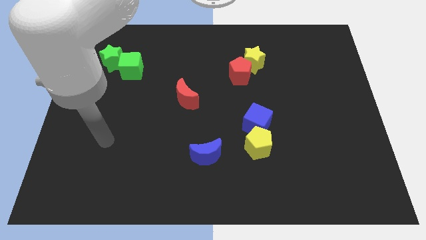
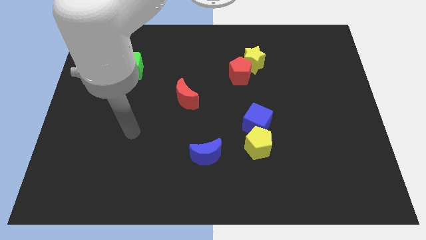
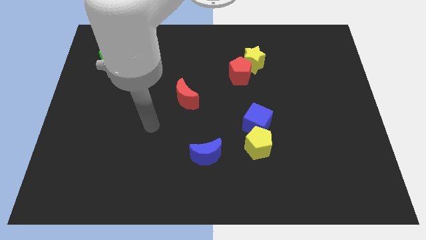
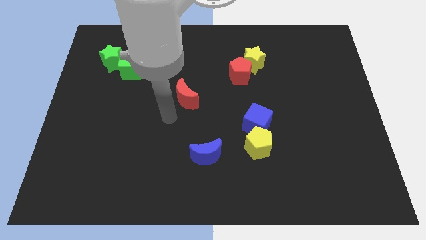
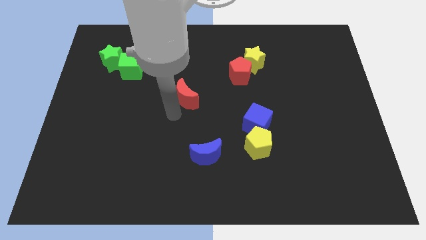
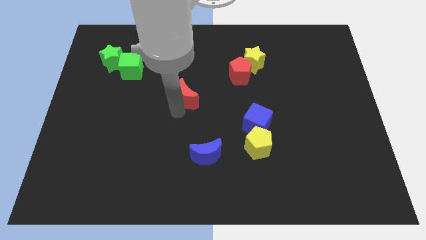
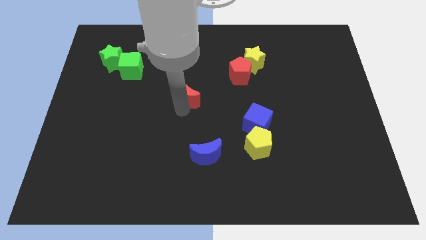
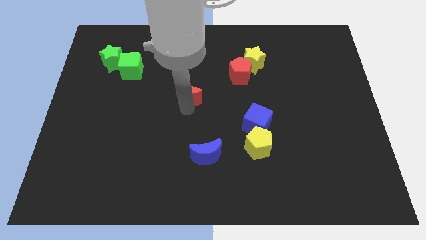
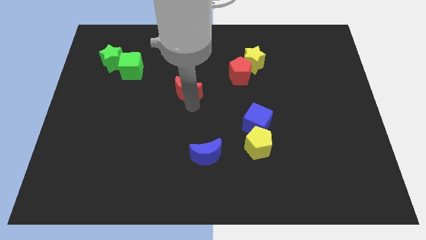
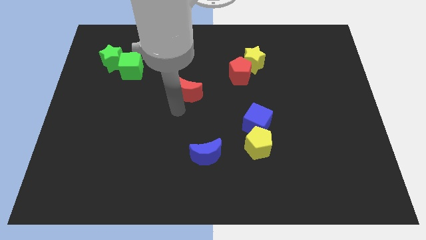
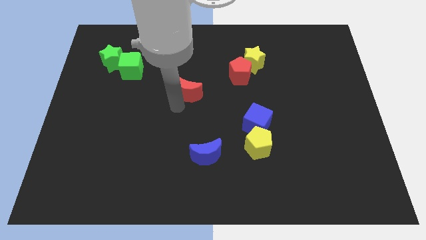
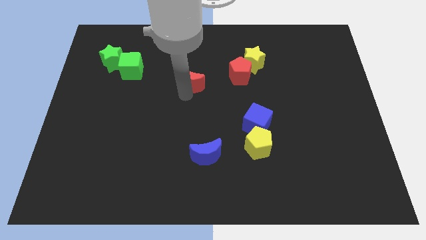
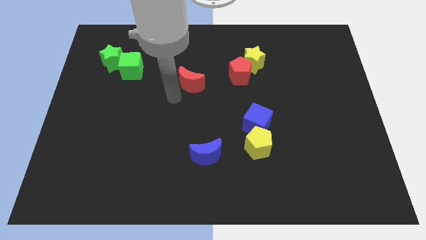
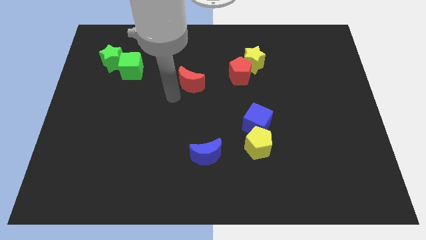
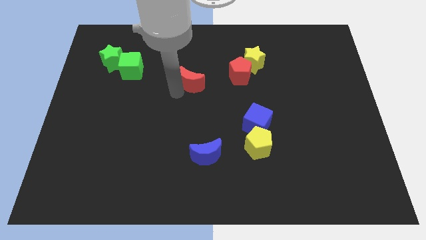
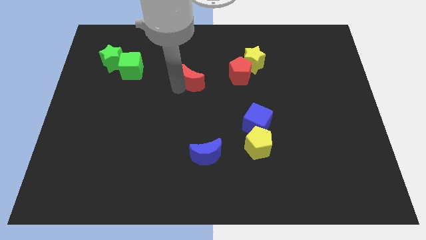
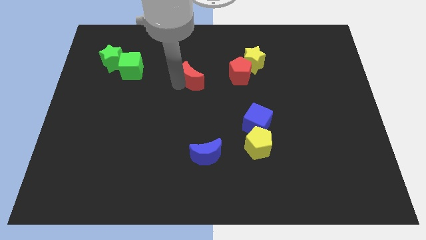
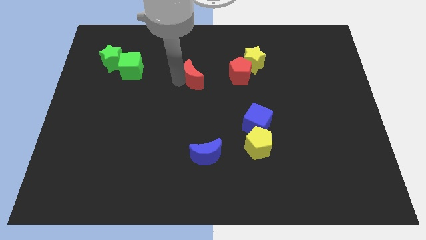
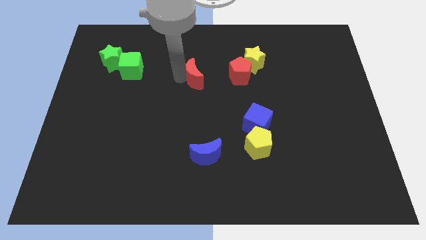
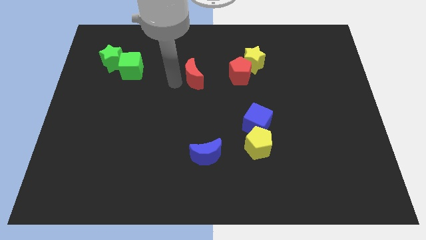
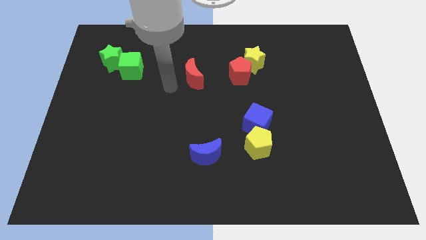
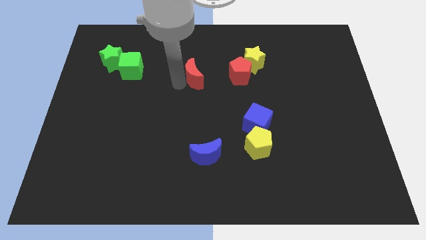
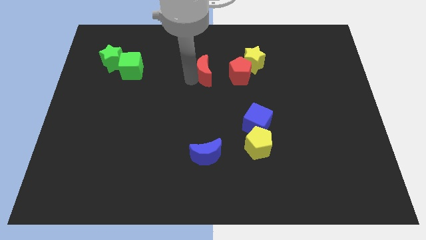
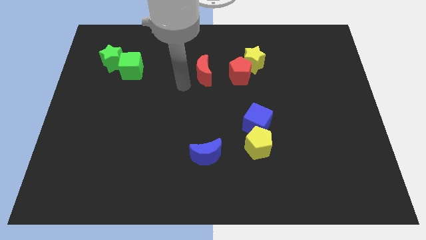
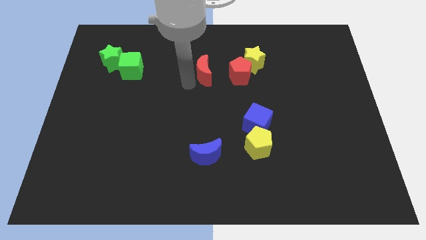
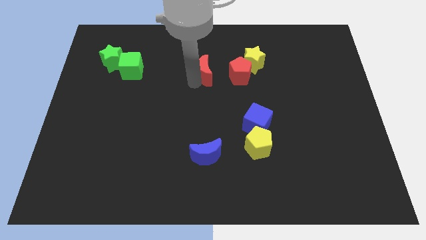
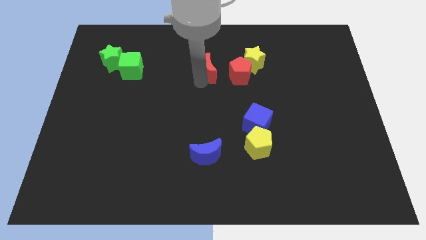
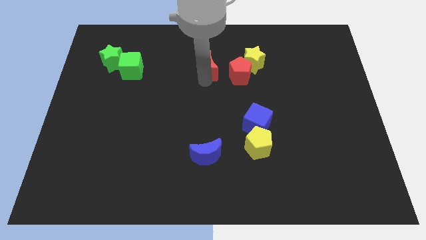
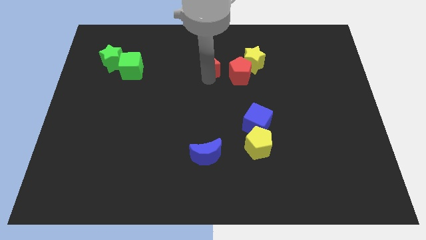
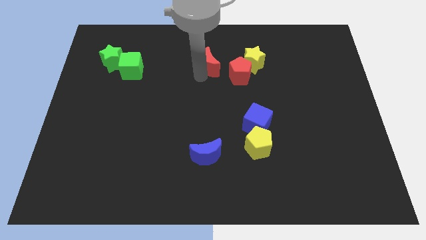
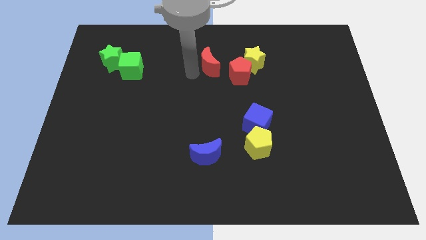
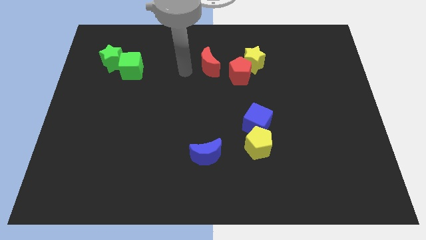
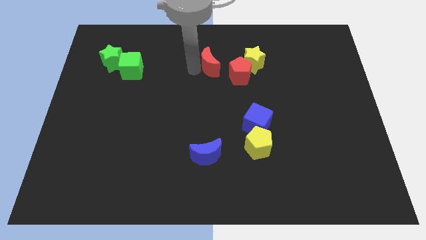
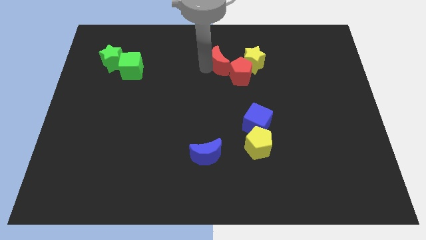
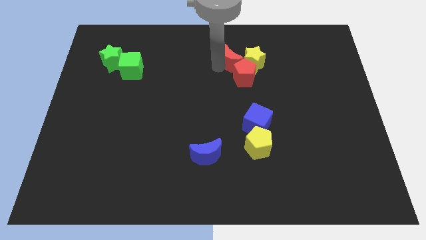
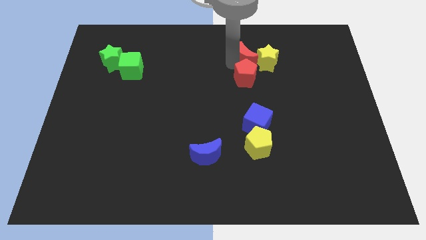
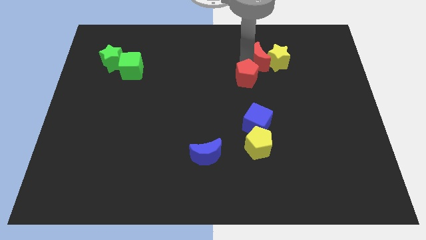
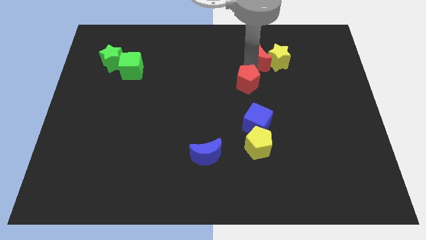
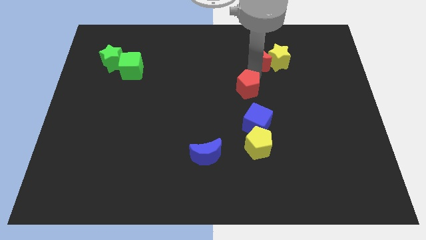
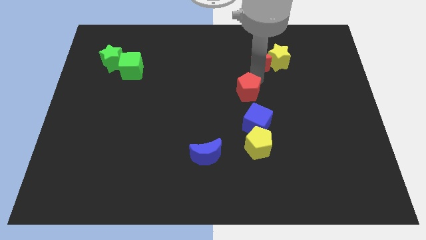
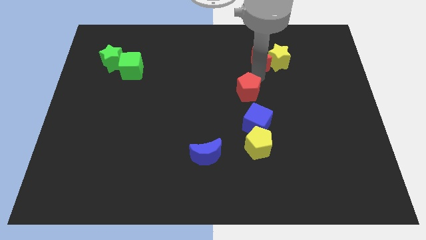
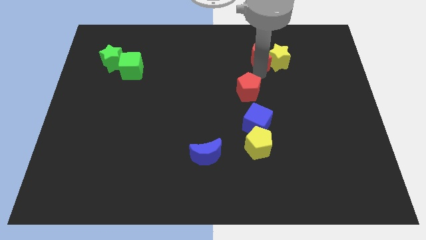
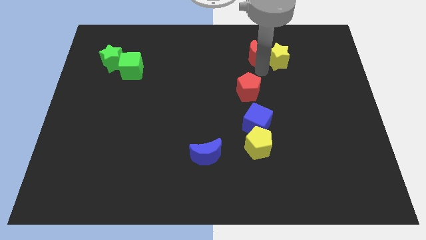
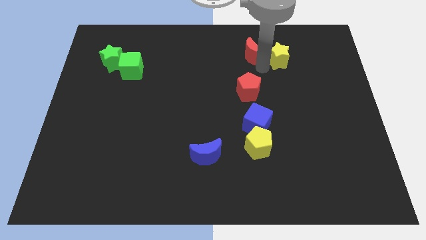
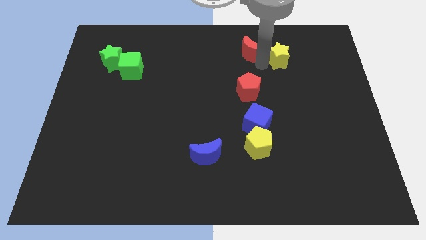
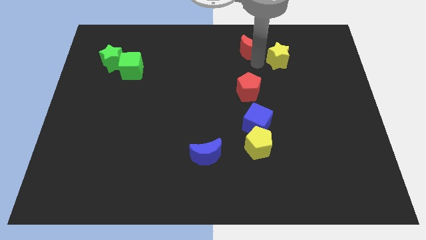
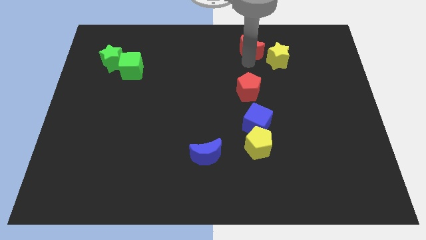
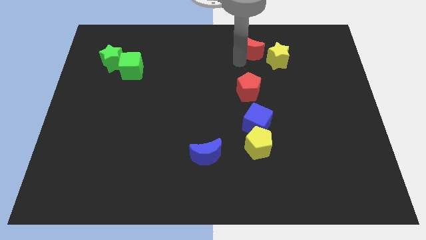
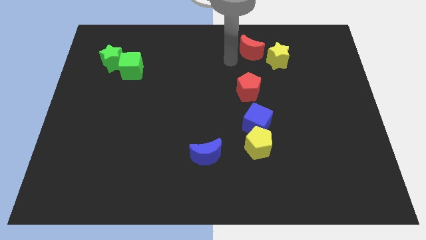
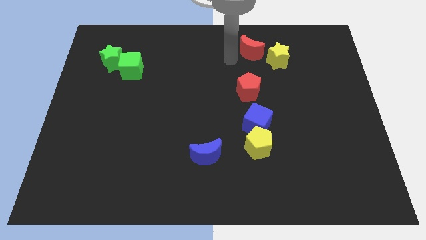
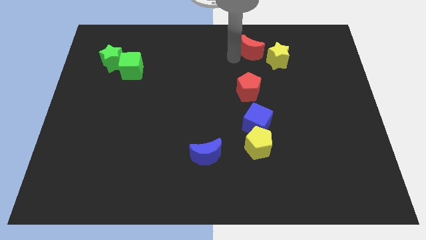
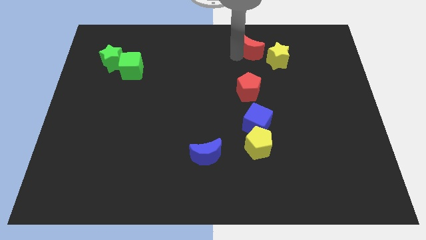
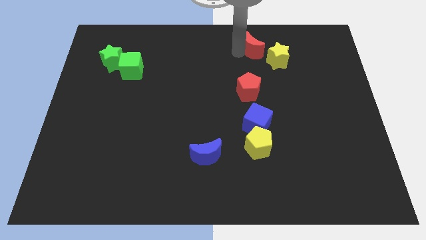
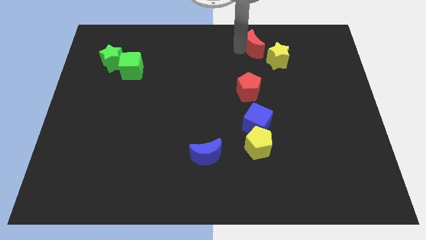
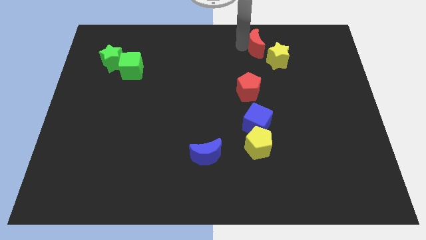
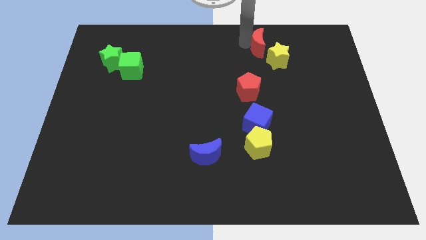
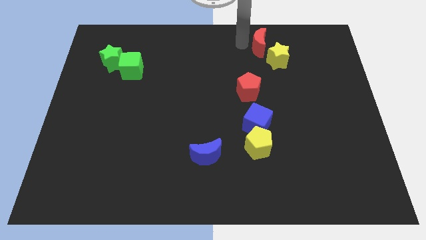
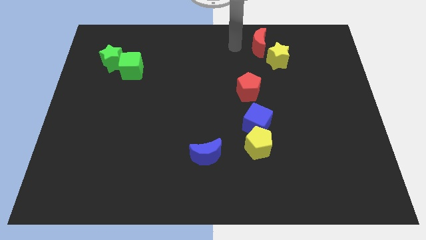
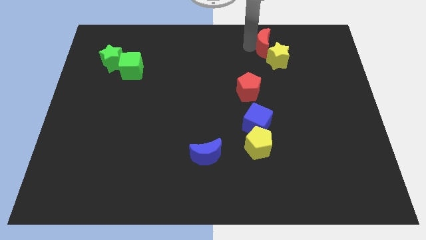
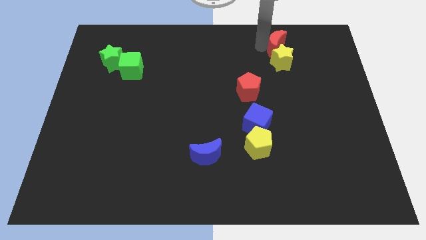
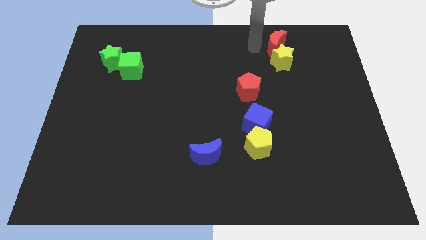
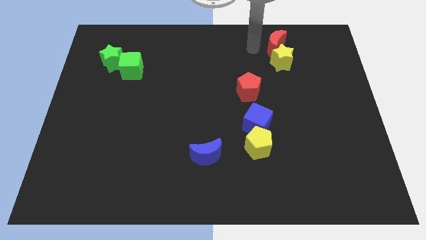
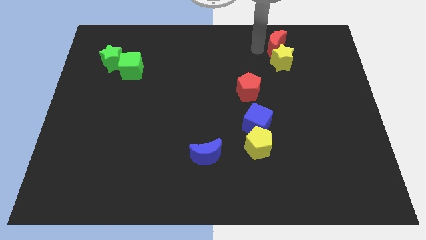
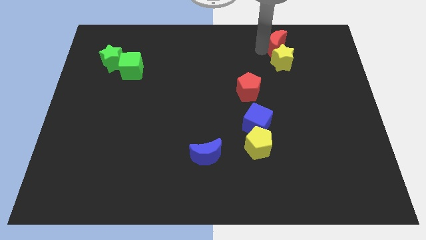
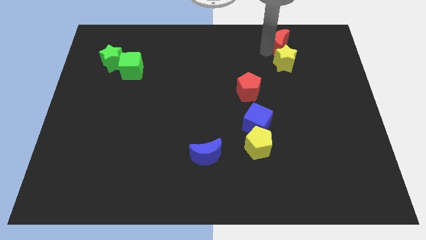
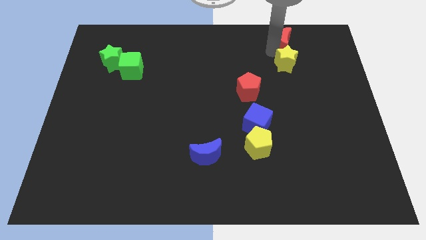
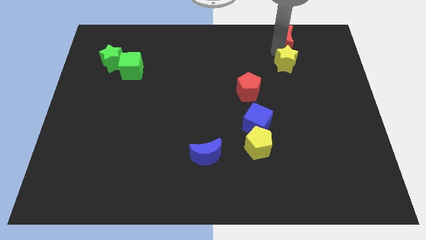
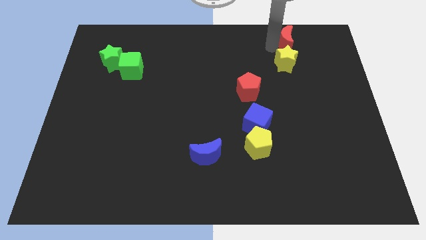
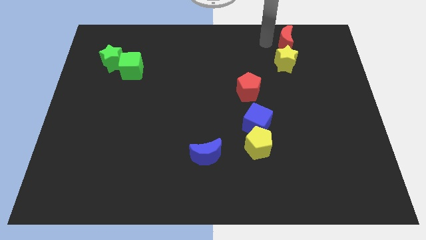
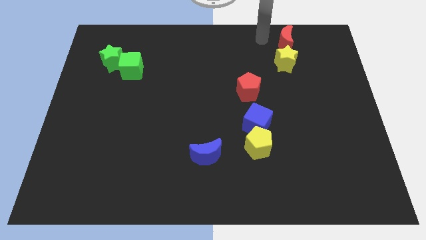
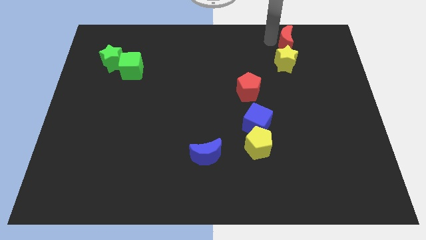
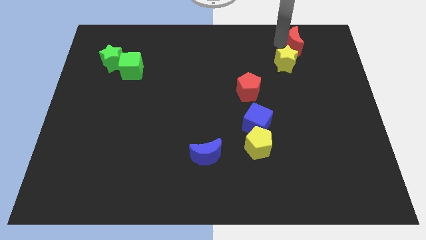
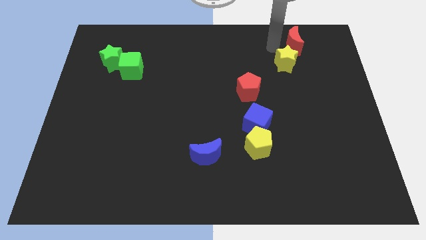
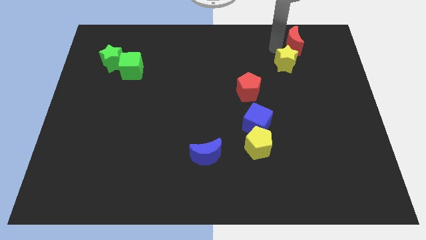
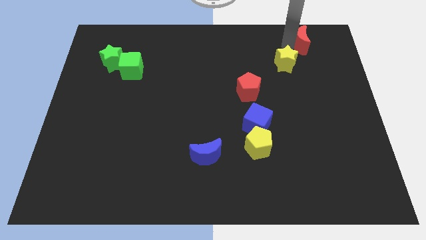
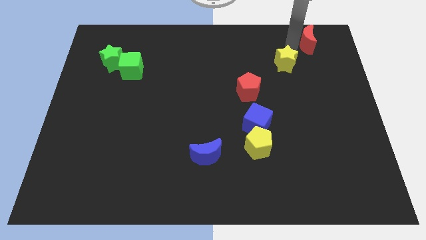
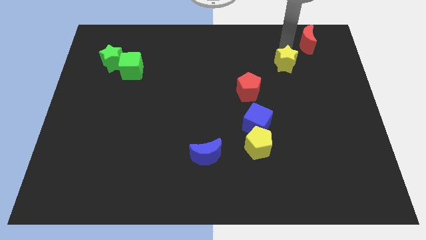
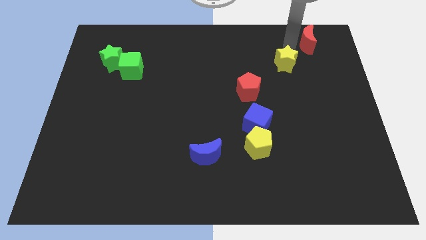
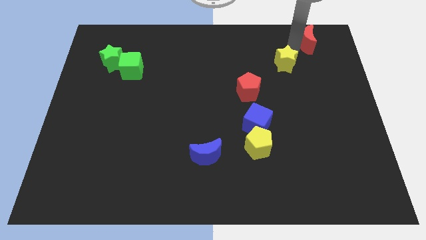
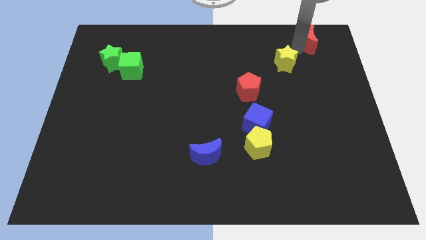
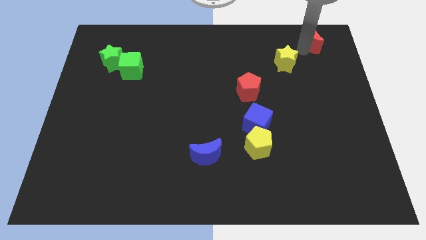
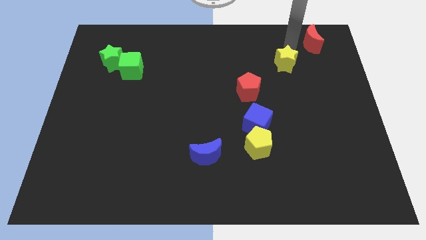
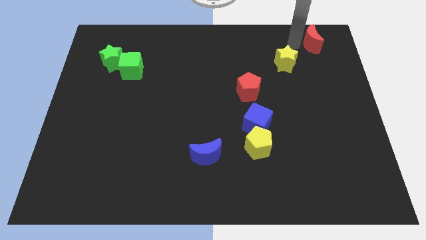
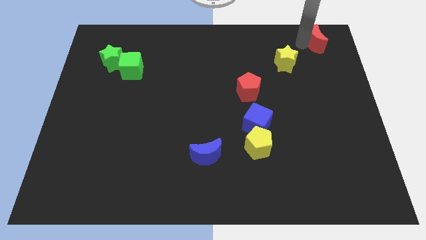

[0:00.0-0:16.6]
move the red moon to the top right
